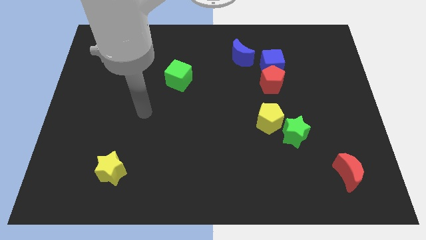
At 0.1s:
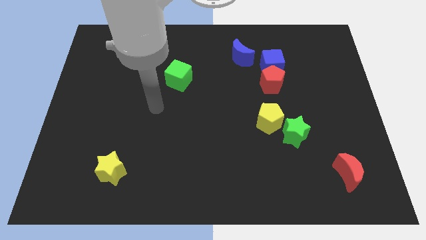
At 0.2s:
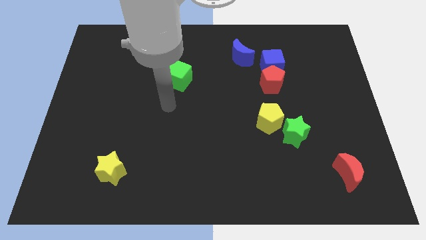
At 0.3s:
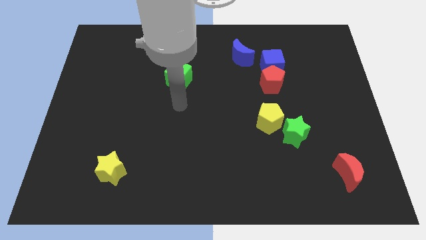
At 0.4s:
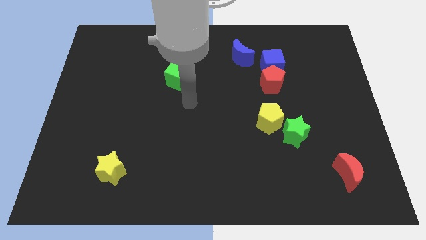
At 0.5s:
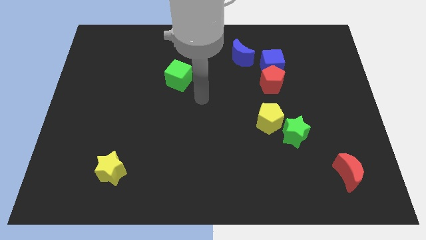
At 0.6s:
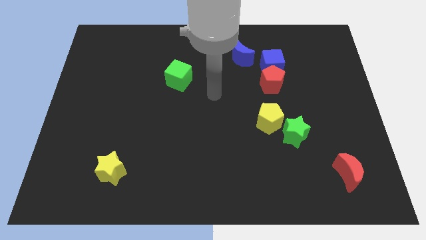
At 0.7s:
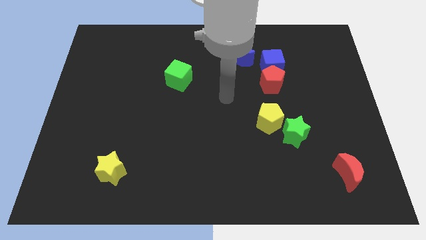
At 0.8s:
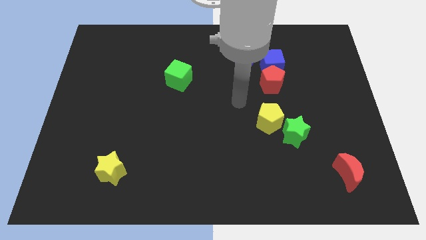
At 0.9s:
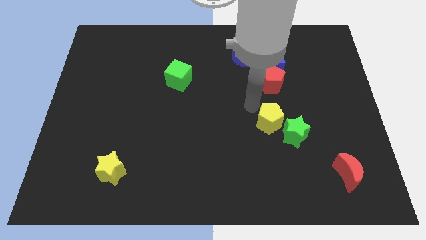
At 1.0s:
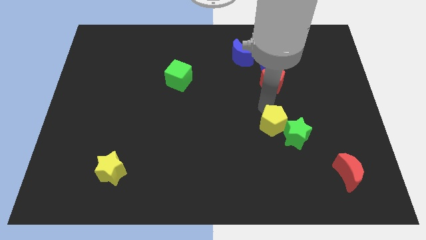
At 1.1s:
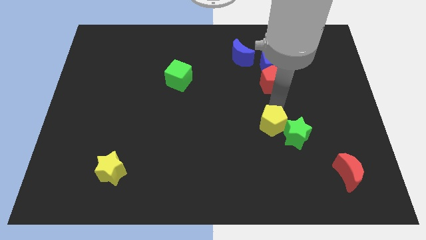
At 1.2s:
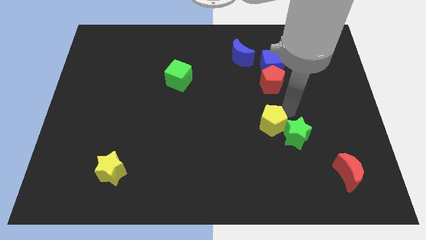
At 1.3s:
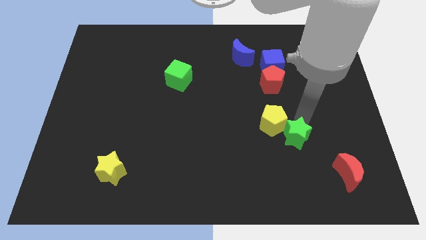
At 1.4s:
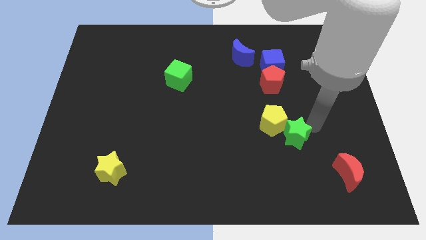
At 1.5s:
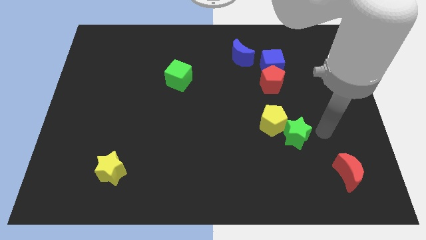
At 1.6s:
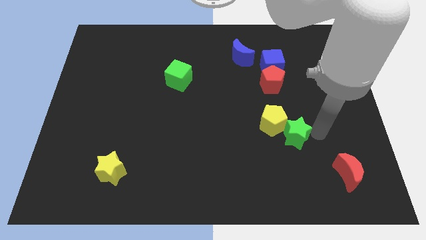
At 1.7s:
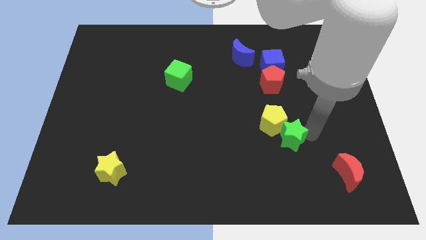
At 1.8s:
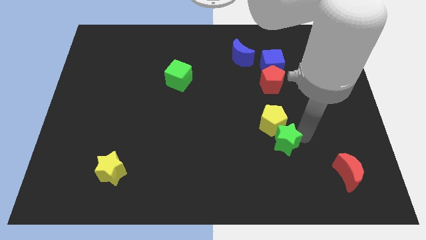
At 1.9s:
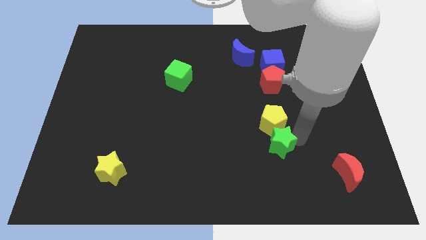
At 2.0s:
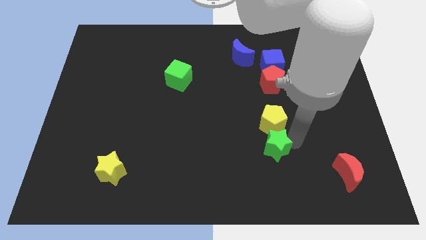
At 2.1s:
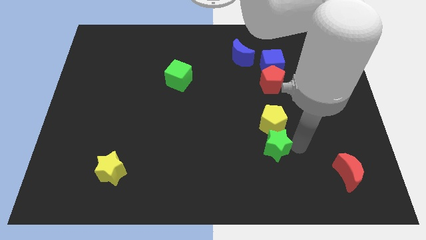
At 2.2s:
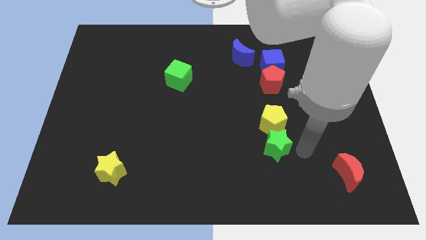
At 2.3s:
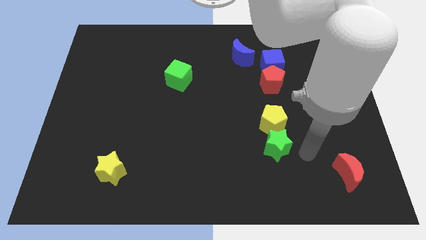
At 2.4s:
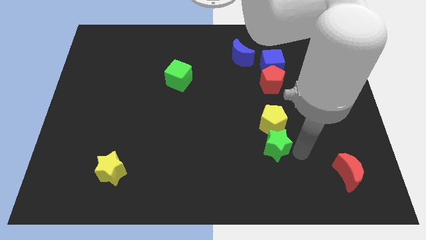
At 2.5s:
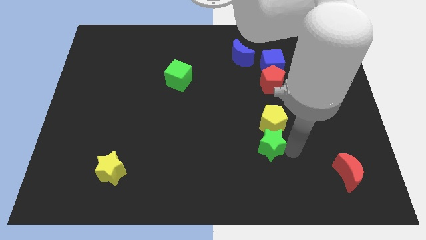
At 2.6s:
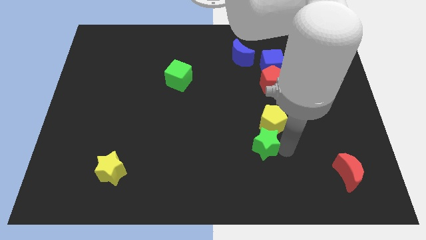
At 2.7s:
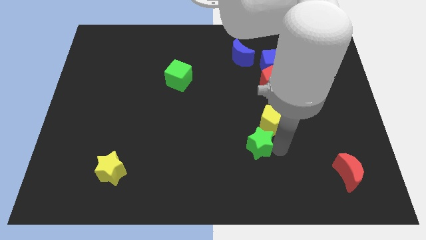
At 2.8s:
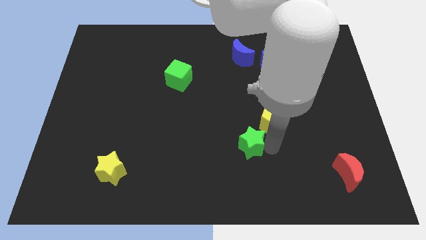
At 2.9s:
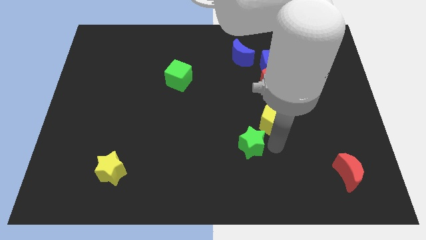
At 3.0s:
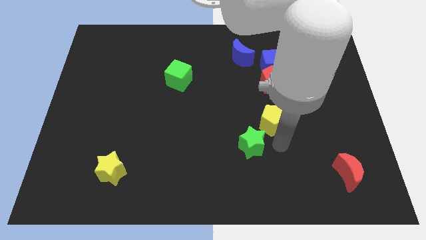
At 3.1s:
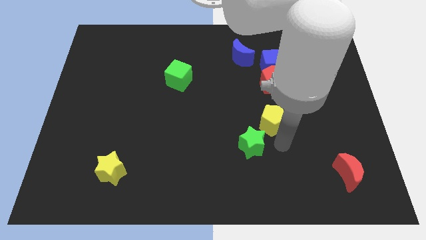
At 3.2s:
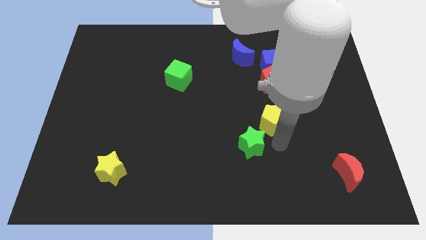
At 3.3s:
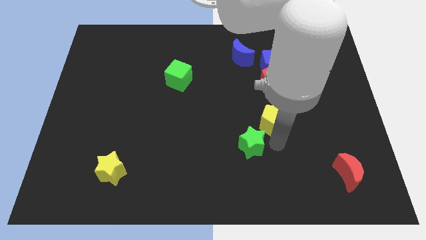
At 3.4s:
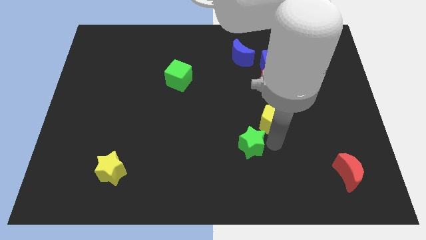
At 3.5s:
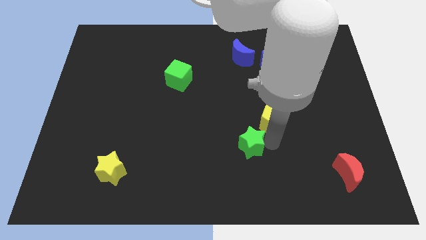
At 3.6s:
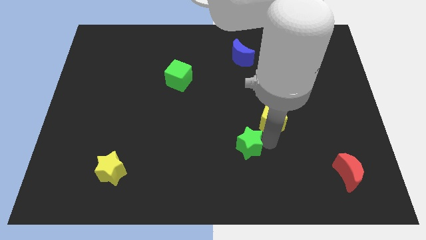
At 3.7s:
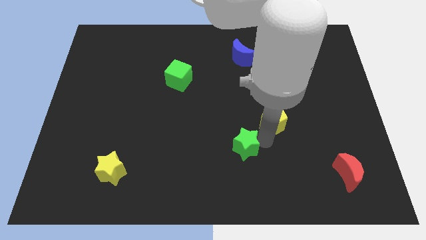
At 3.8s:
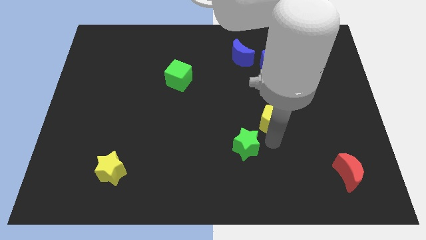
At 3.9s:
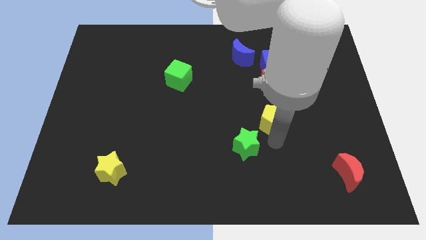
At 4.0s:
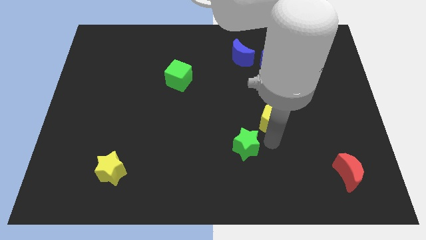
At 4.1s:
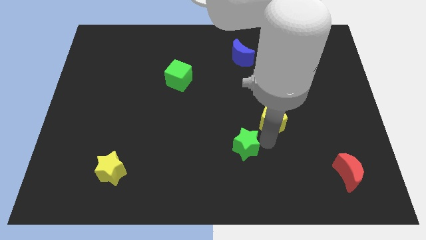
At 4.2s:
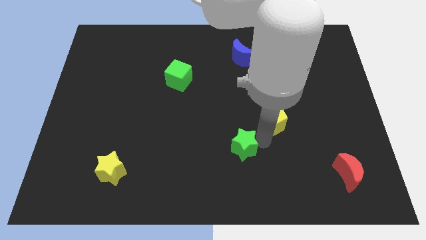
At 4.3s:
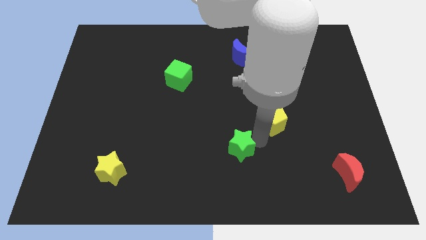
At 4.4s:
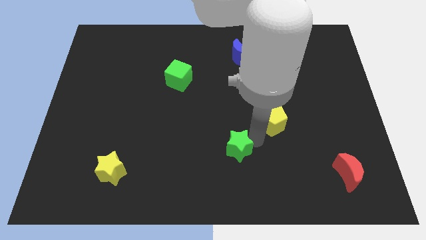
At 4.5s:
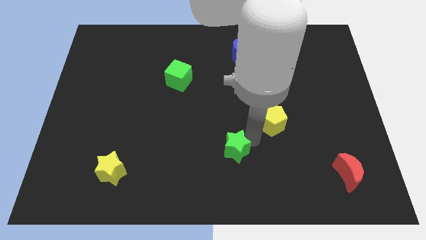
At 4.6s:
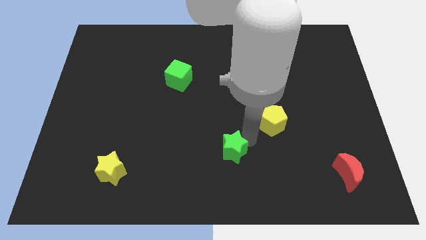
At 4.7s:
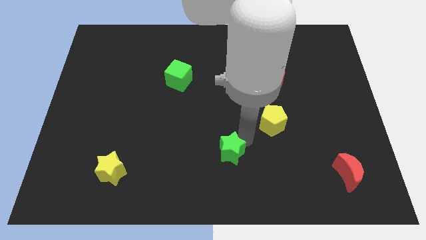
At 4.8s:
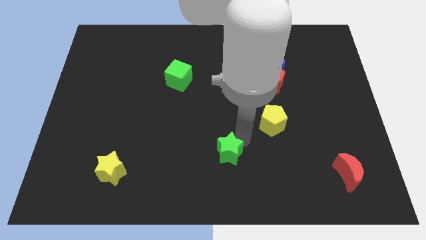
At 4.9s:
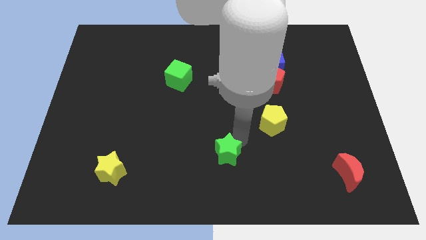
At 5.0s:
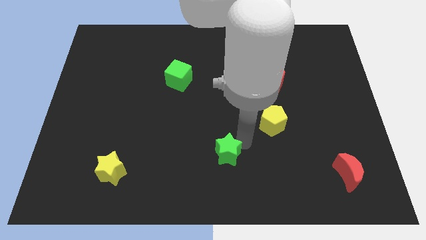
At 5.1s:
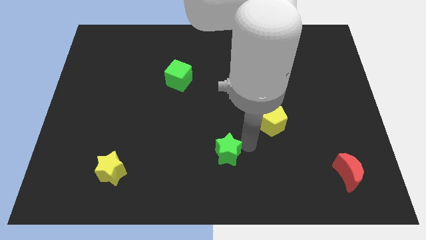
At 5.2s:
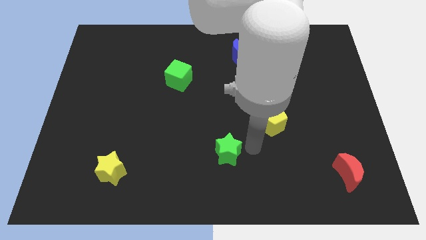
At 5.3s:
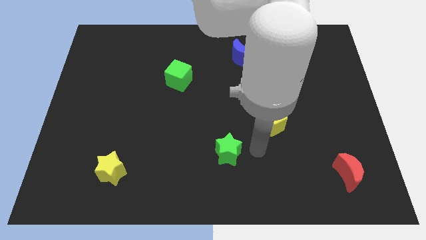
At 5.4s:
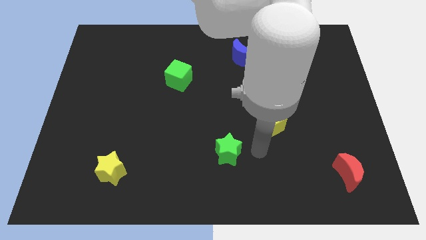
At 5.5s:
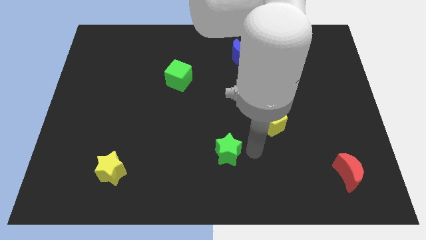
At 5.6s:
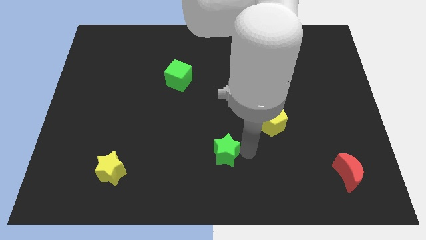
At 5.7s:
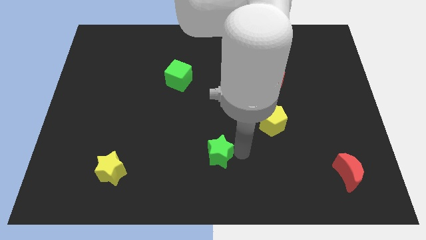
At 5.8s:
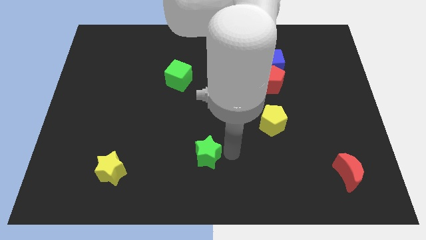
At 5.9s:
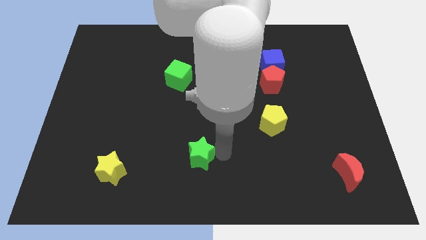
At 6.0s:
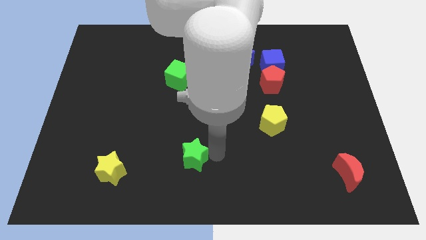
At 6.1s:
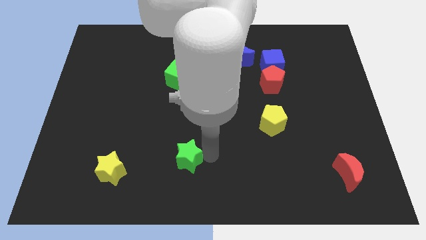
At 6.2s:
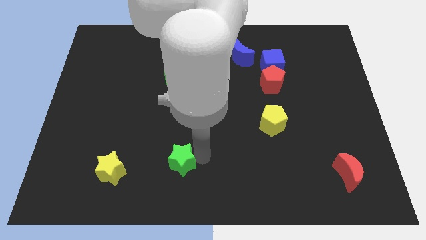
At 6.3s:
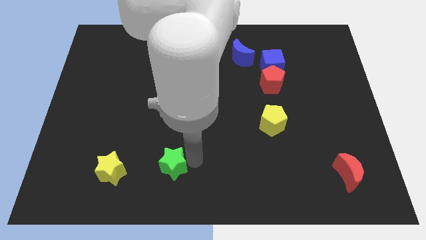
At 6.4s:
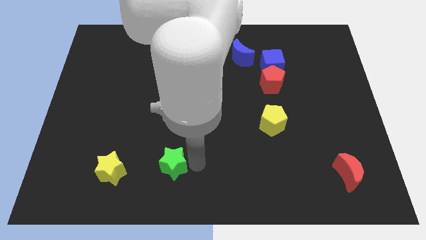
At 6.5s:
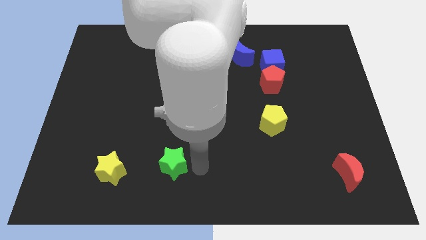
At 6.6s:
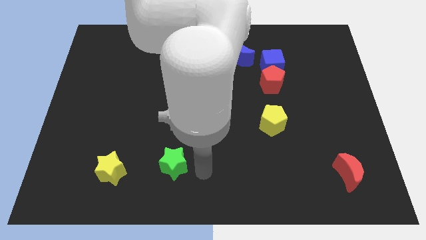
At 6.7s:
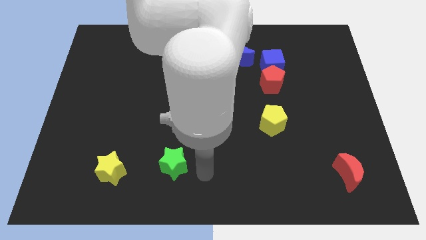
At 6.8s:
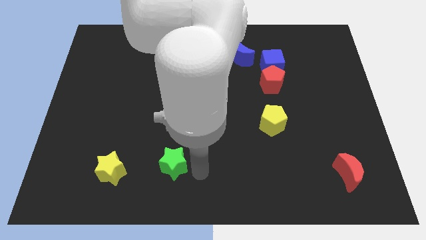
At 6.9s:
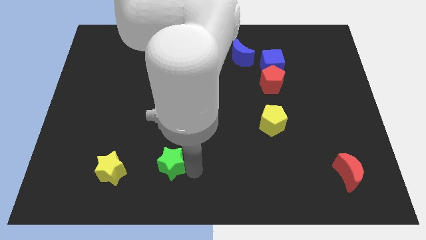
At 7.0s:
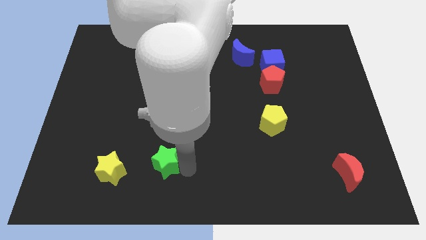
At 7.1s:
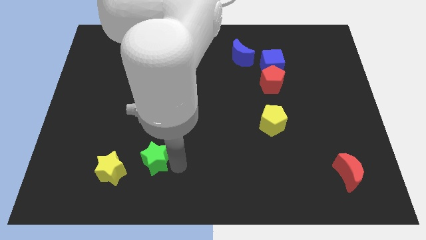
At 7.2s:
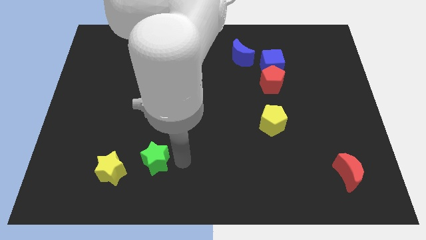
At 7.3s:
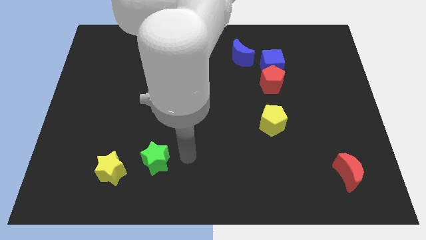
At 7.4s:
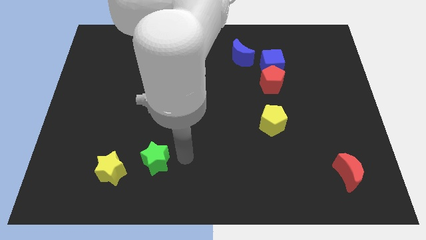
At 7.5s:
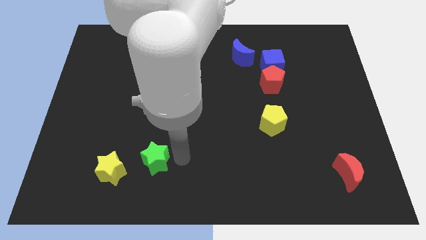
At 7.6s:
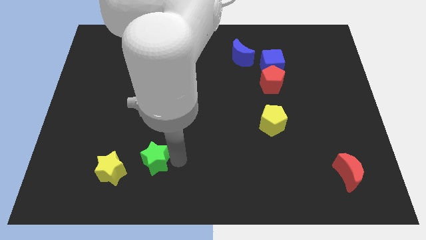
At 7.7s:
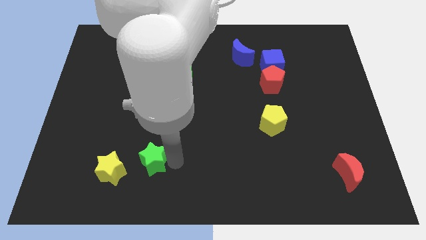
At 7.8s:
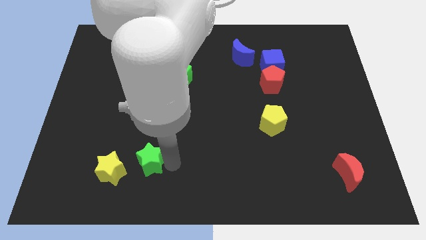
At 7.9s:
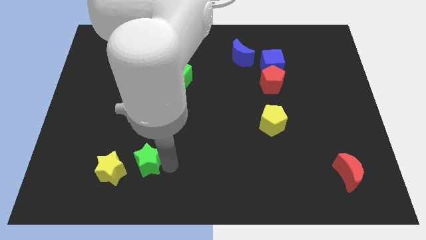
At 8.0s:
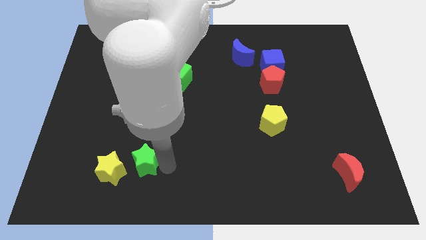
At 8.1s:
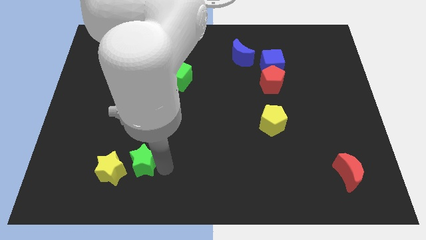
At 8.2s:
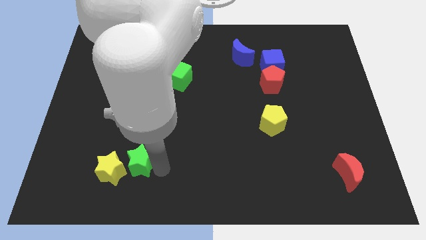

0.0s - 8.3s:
move the green star towards the yellow star

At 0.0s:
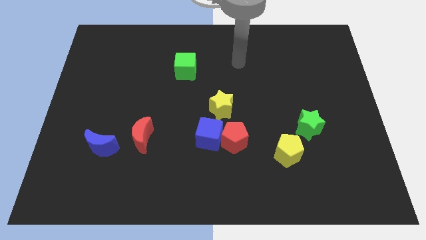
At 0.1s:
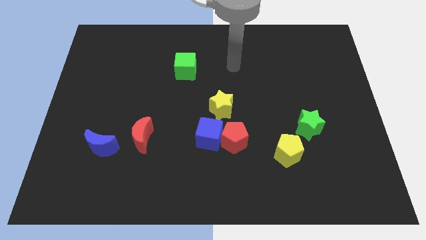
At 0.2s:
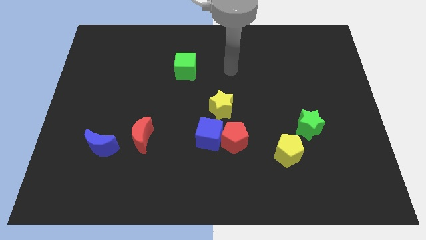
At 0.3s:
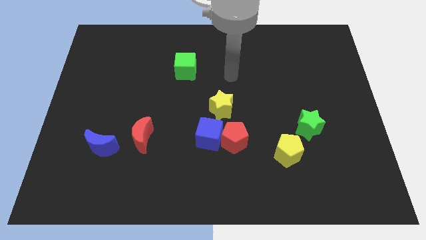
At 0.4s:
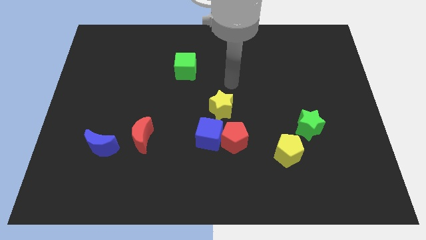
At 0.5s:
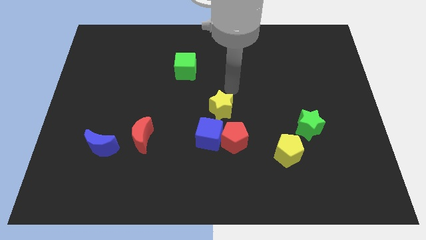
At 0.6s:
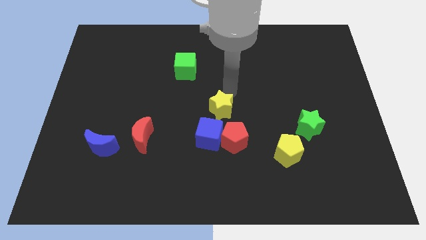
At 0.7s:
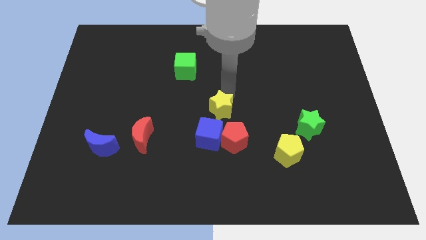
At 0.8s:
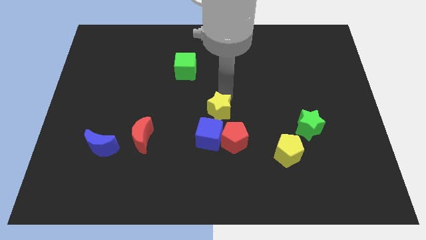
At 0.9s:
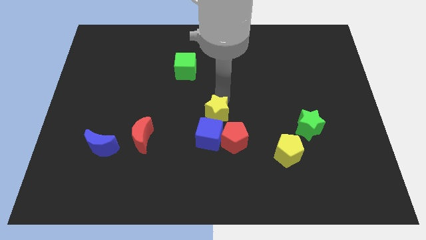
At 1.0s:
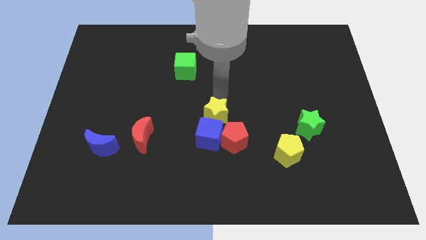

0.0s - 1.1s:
push the yellow star towards the blue cube
